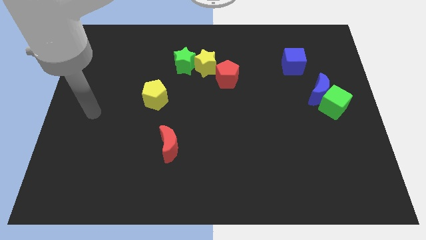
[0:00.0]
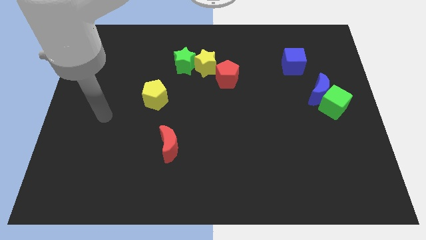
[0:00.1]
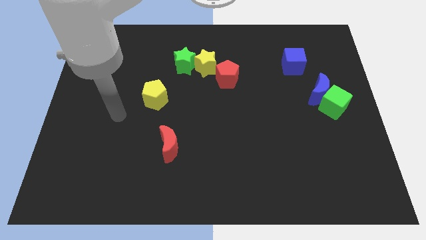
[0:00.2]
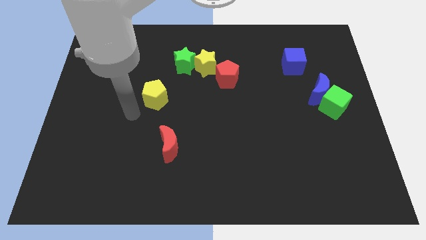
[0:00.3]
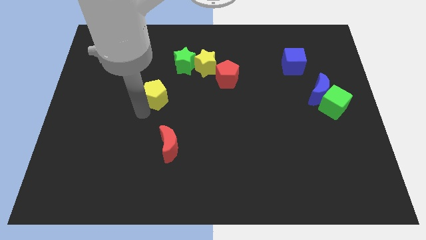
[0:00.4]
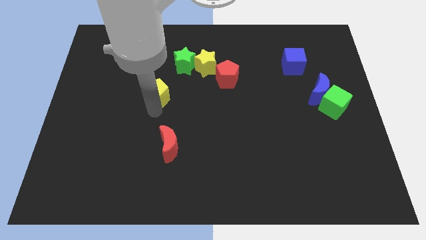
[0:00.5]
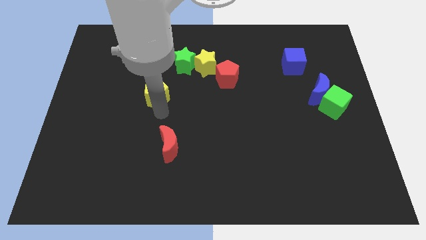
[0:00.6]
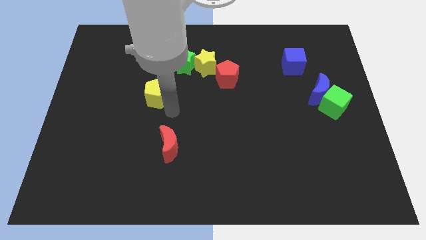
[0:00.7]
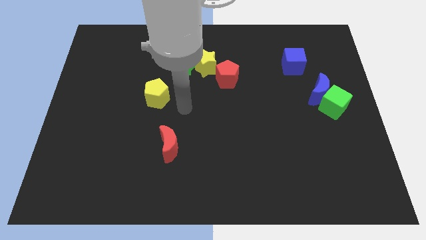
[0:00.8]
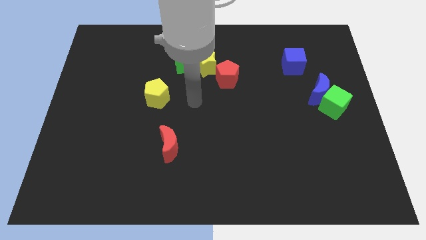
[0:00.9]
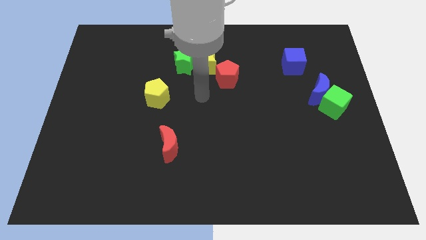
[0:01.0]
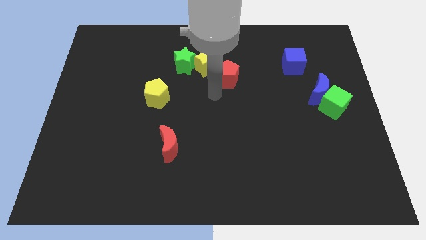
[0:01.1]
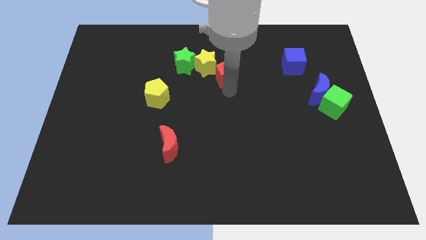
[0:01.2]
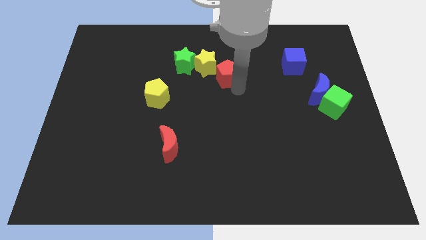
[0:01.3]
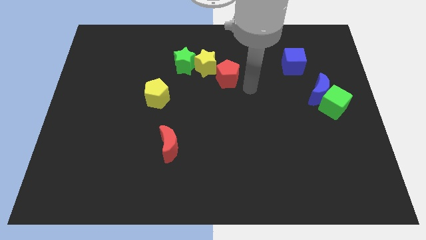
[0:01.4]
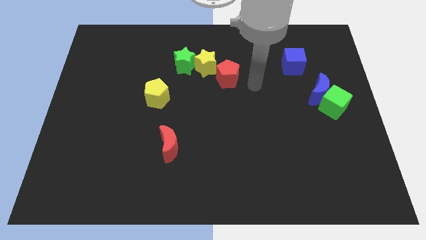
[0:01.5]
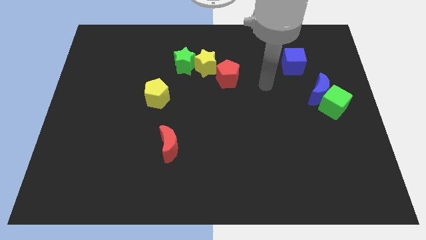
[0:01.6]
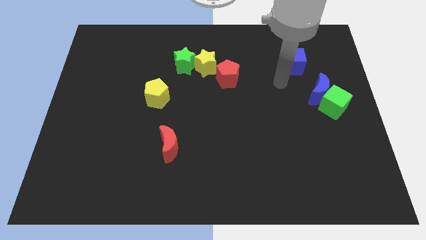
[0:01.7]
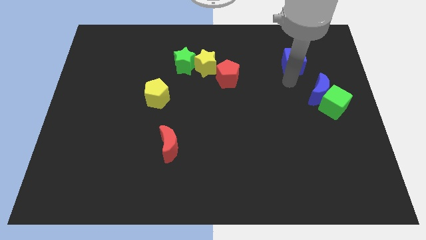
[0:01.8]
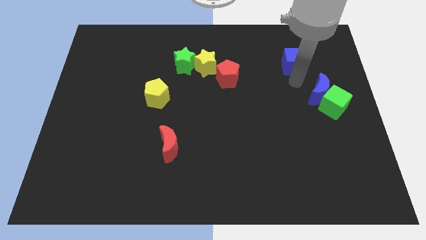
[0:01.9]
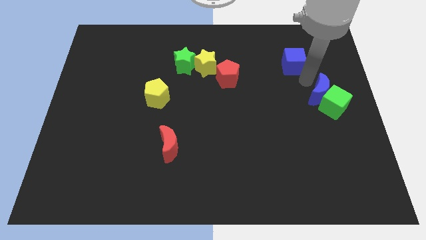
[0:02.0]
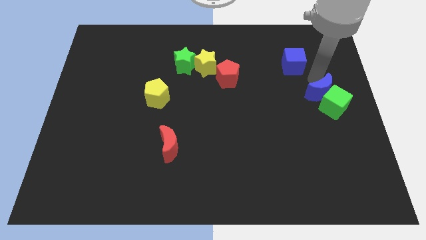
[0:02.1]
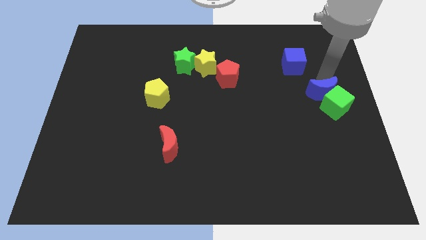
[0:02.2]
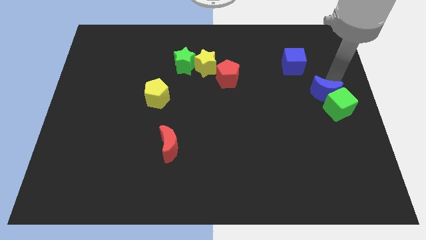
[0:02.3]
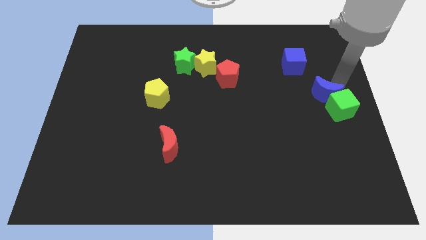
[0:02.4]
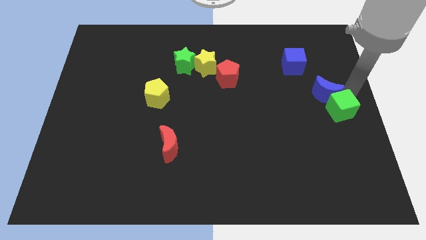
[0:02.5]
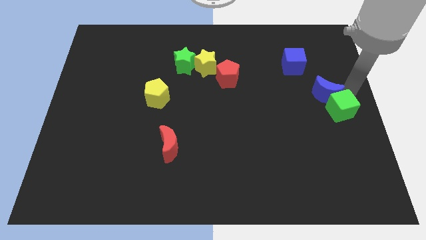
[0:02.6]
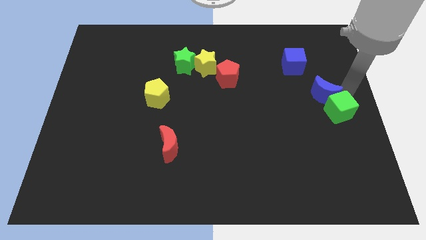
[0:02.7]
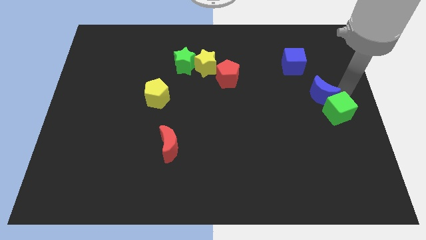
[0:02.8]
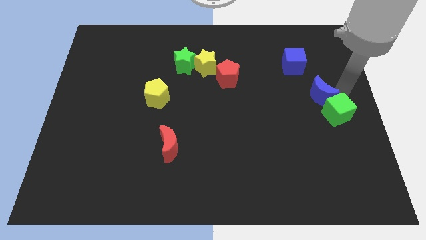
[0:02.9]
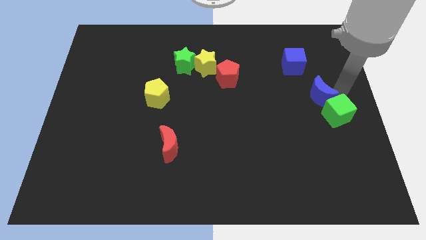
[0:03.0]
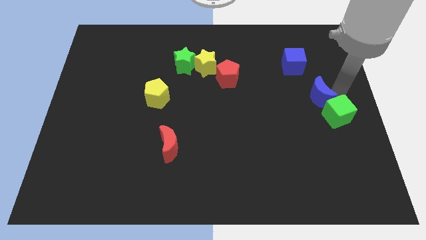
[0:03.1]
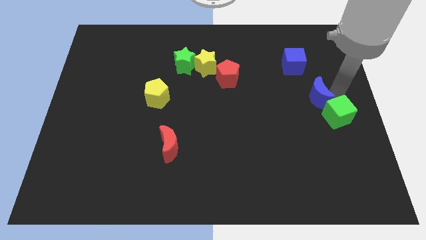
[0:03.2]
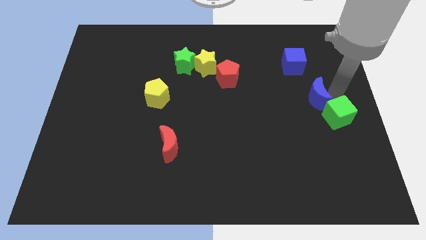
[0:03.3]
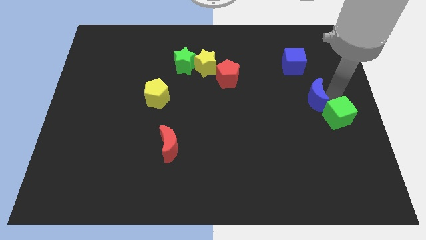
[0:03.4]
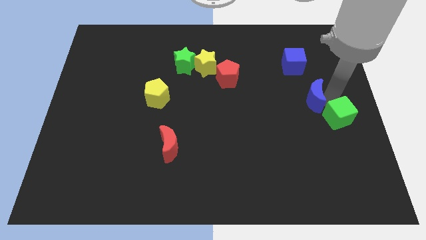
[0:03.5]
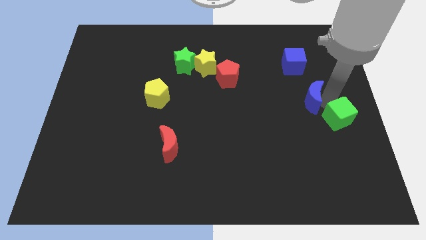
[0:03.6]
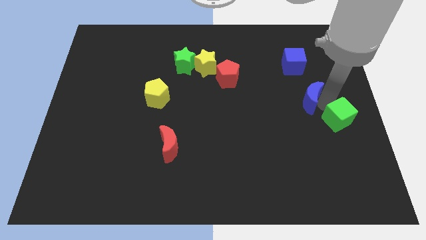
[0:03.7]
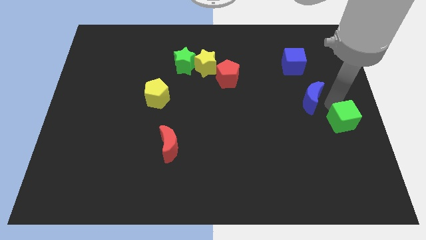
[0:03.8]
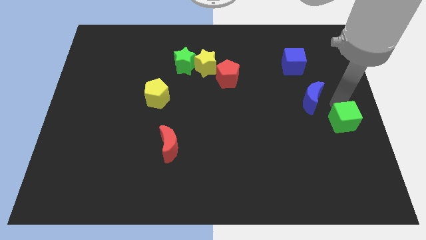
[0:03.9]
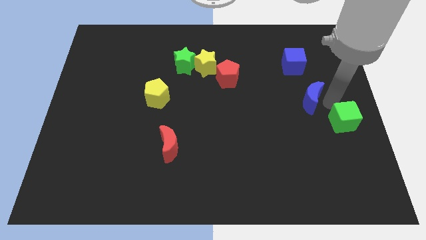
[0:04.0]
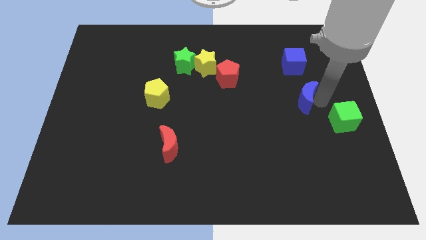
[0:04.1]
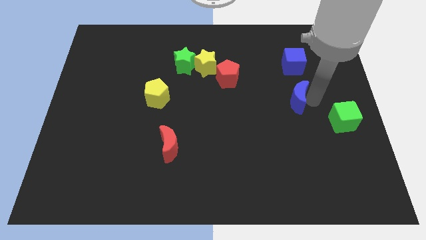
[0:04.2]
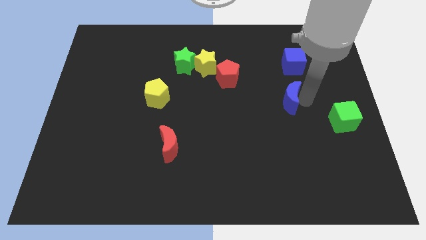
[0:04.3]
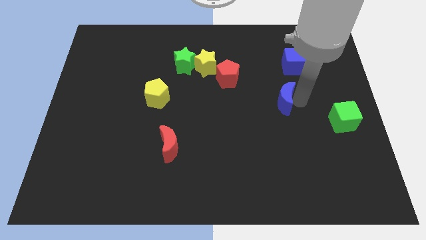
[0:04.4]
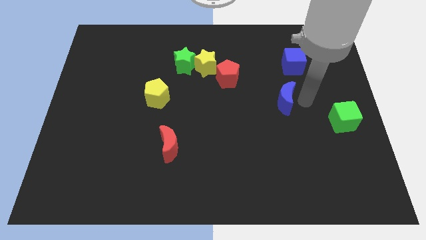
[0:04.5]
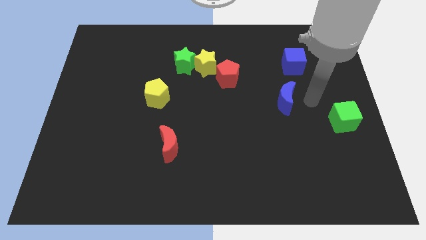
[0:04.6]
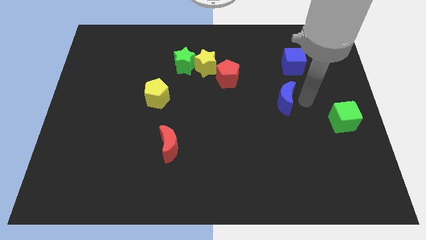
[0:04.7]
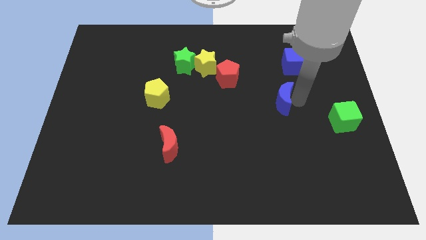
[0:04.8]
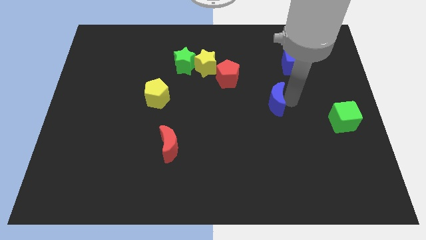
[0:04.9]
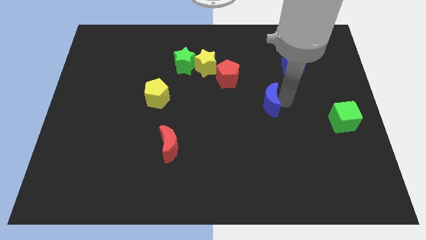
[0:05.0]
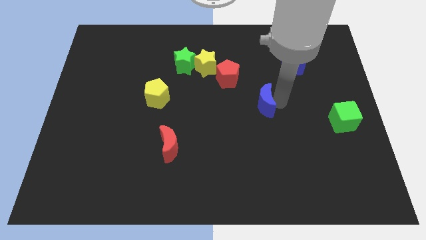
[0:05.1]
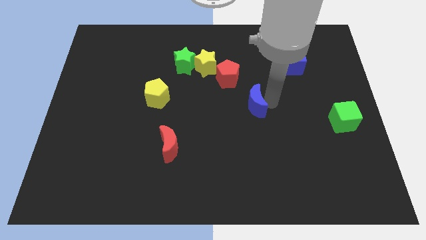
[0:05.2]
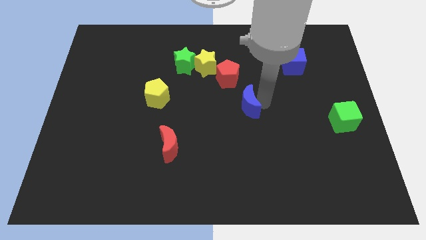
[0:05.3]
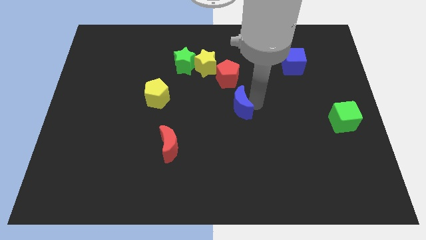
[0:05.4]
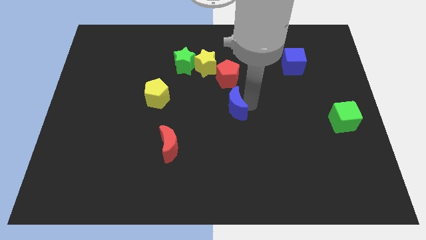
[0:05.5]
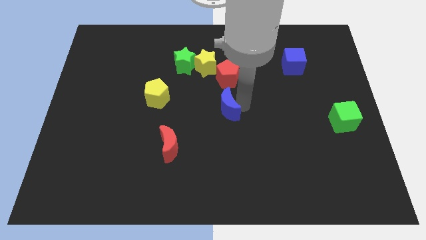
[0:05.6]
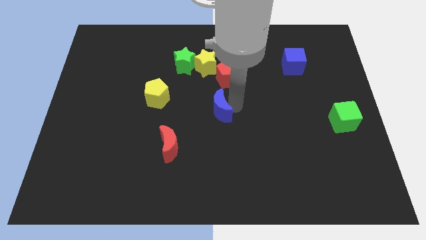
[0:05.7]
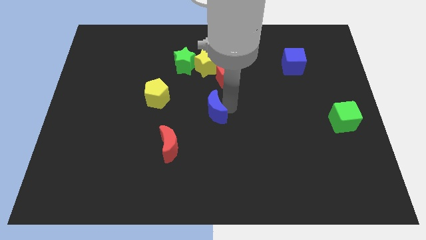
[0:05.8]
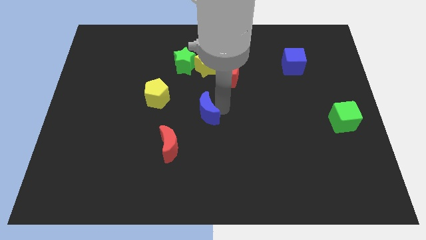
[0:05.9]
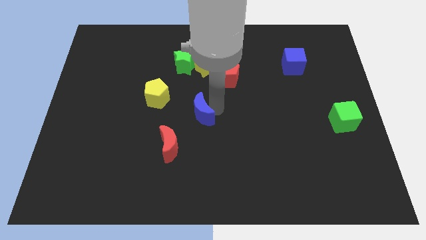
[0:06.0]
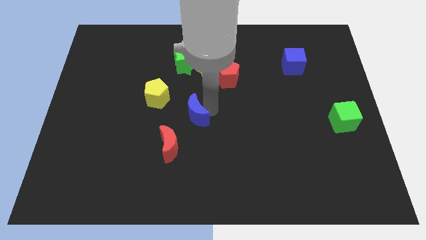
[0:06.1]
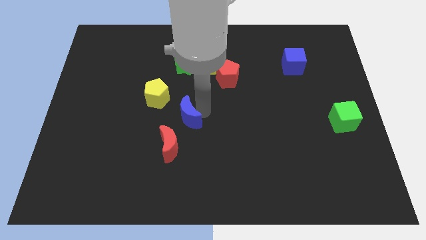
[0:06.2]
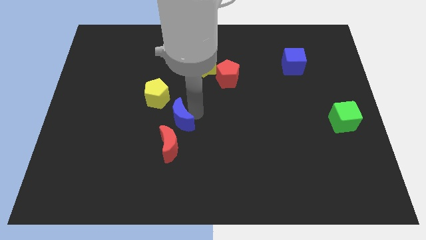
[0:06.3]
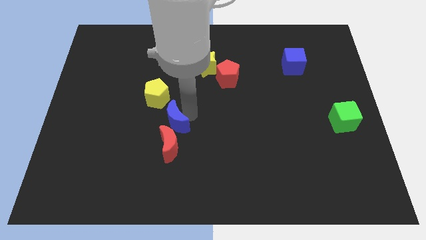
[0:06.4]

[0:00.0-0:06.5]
put the blue moon to the bottom side of the yellow pentagon

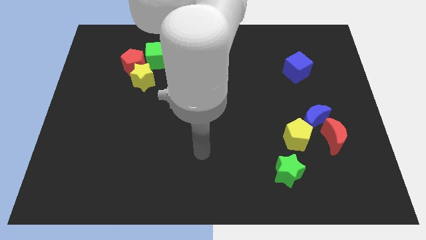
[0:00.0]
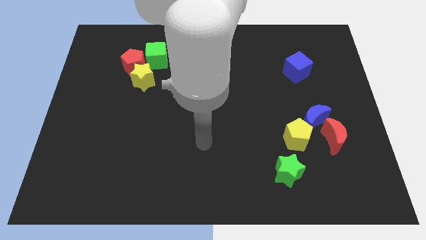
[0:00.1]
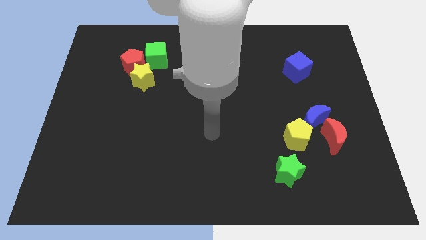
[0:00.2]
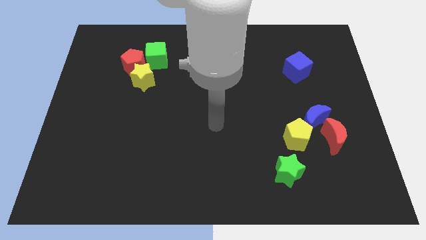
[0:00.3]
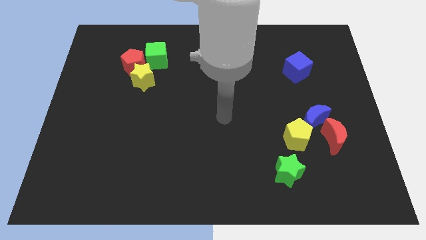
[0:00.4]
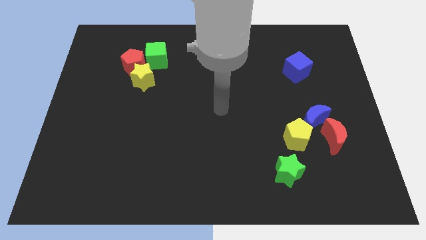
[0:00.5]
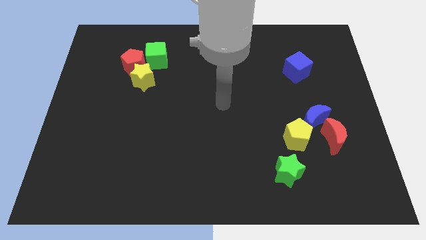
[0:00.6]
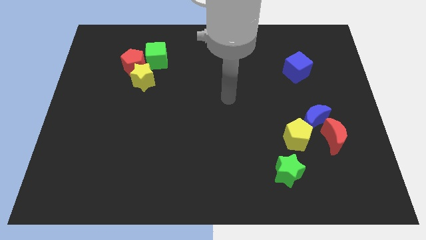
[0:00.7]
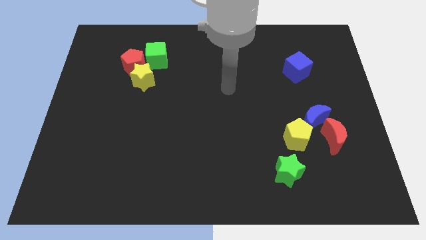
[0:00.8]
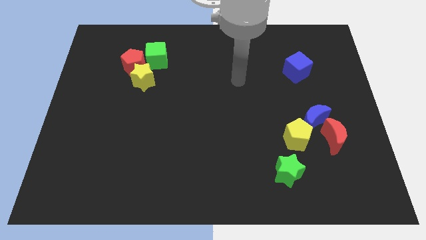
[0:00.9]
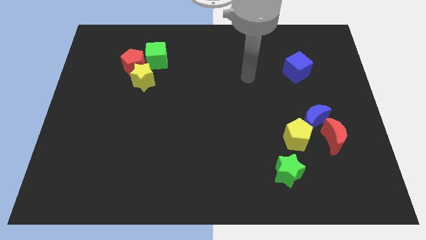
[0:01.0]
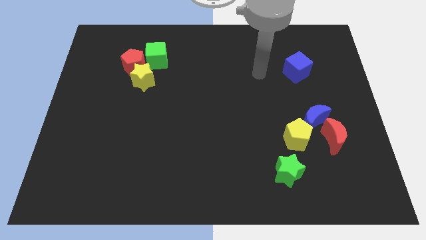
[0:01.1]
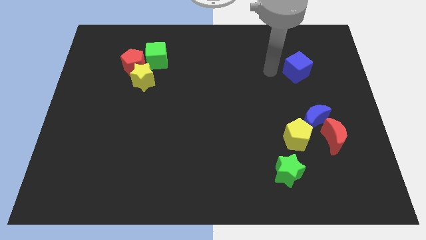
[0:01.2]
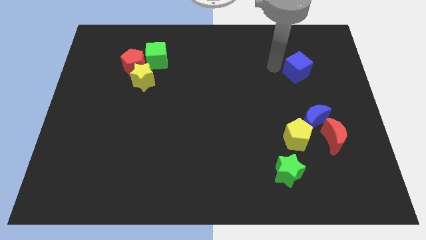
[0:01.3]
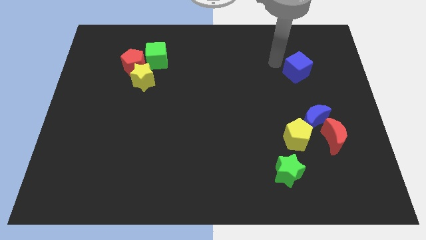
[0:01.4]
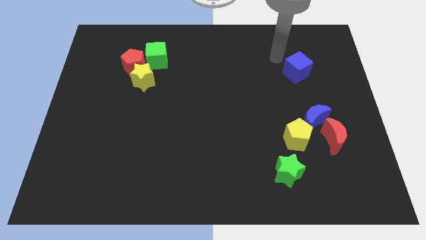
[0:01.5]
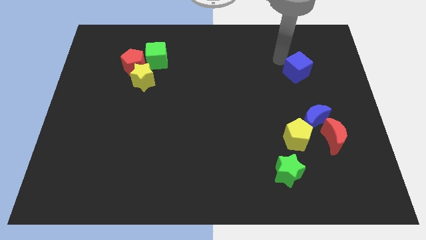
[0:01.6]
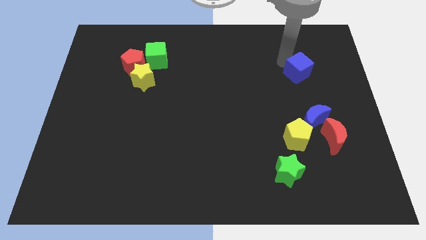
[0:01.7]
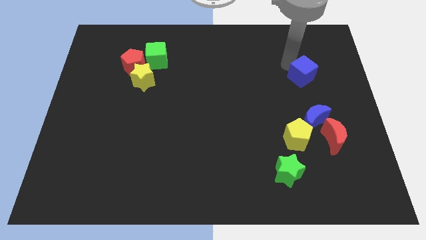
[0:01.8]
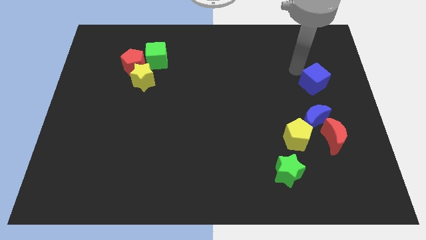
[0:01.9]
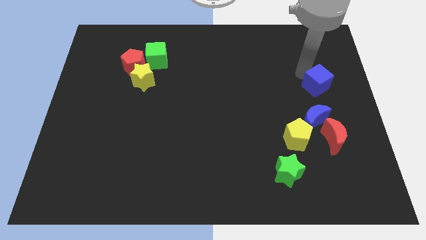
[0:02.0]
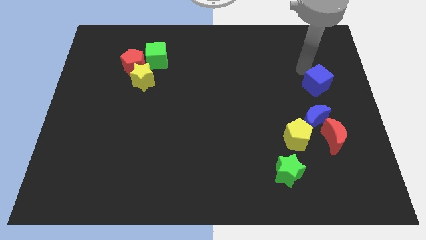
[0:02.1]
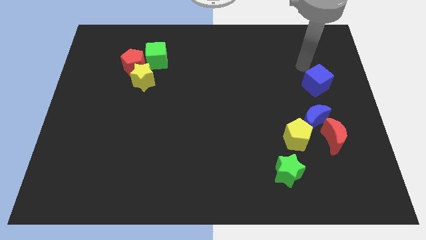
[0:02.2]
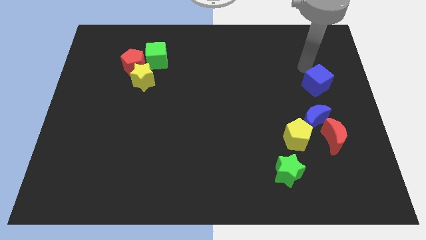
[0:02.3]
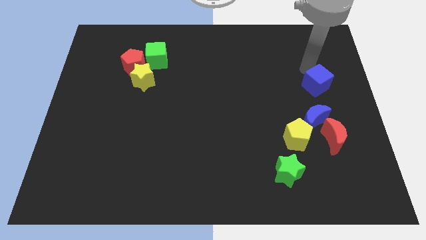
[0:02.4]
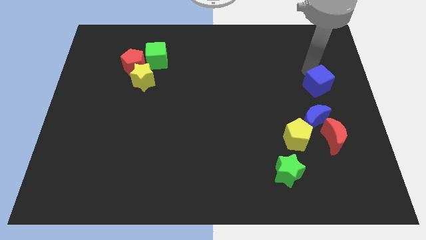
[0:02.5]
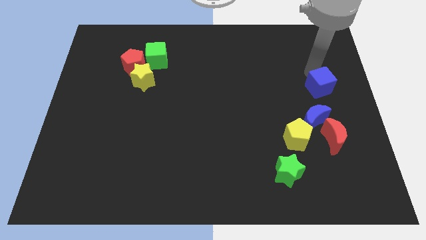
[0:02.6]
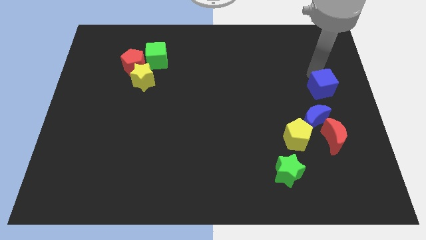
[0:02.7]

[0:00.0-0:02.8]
slide the blue cube to the top right side of the blue moon
